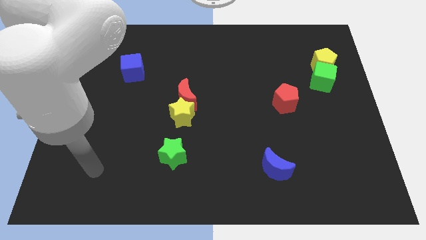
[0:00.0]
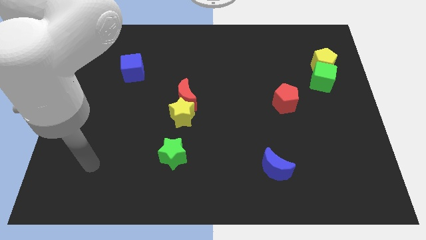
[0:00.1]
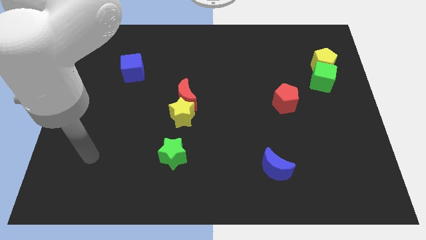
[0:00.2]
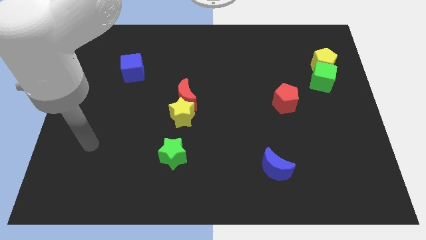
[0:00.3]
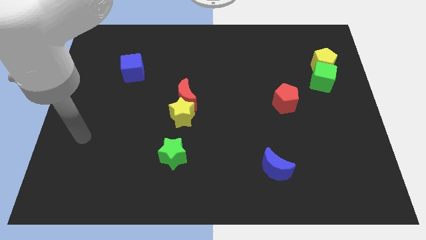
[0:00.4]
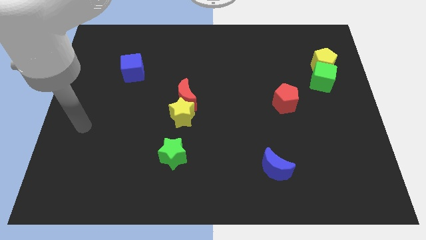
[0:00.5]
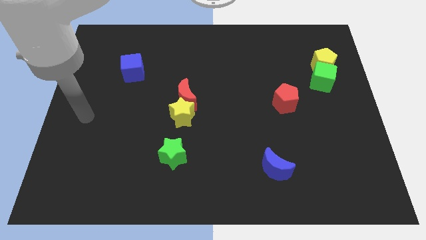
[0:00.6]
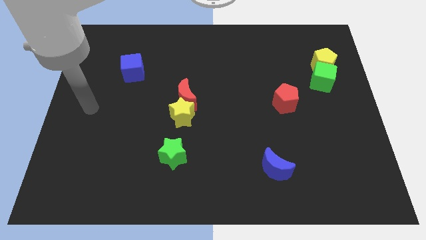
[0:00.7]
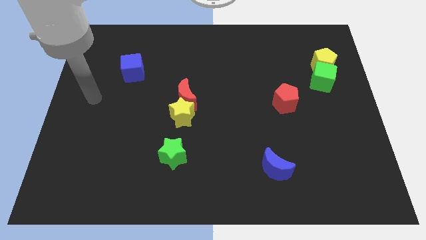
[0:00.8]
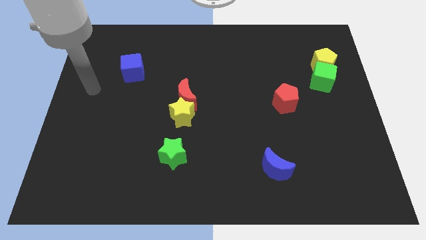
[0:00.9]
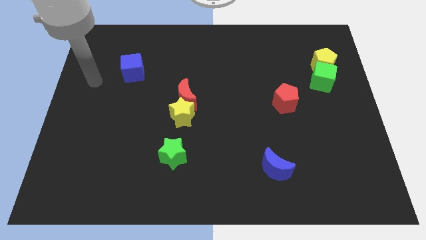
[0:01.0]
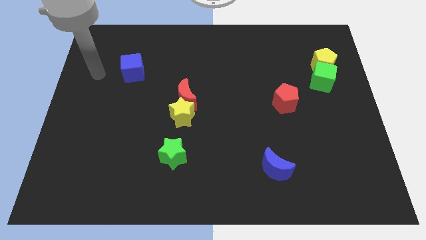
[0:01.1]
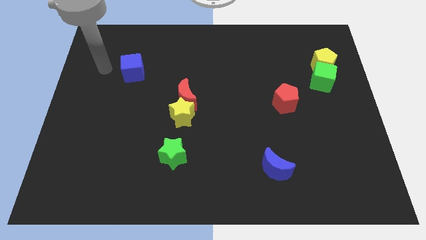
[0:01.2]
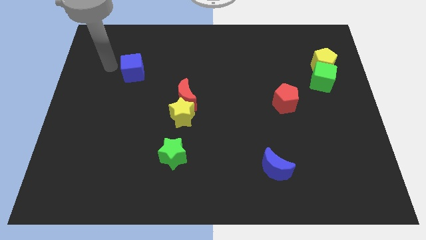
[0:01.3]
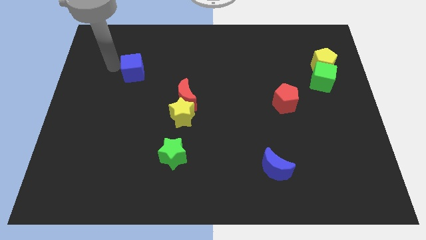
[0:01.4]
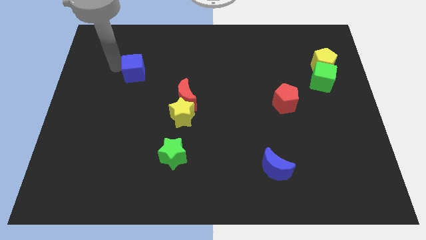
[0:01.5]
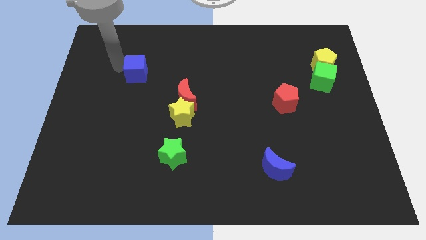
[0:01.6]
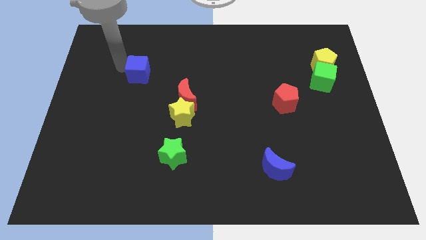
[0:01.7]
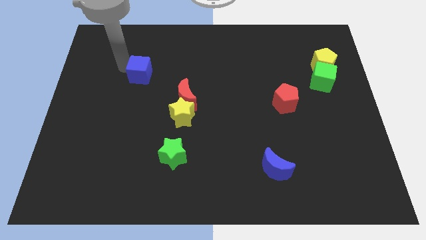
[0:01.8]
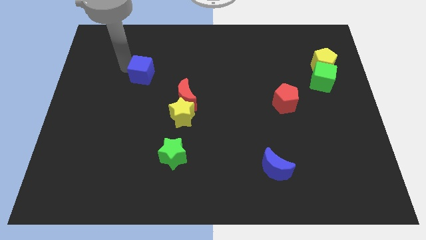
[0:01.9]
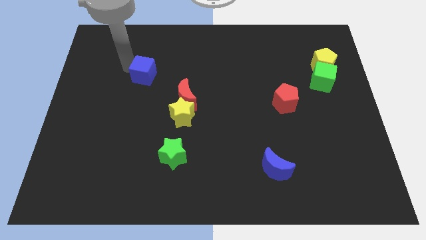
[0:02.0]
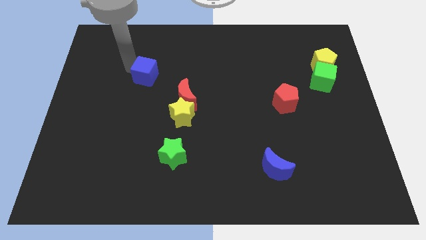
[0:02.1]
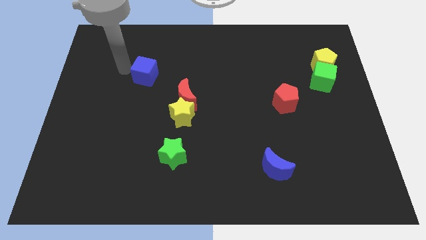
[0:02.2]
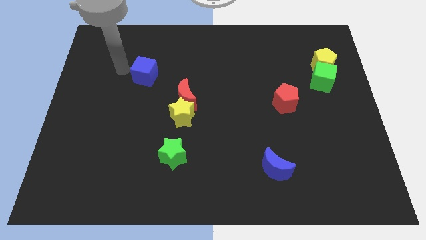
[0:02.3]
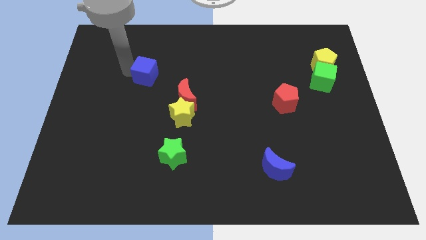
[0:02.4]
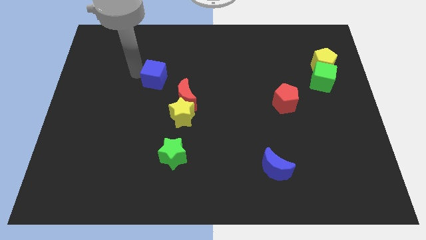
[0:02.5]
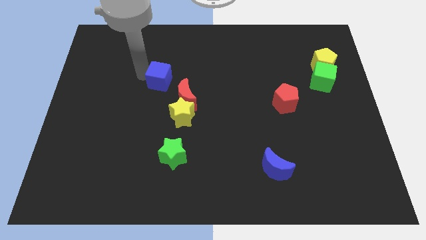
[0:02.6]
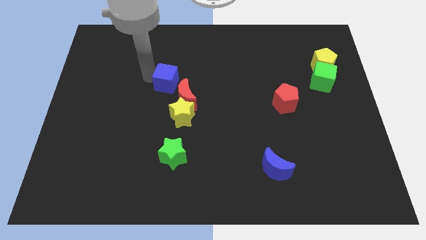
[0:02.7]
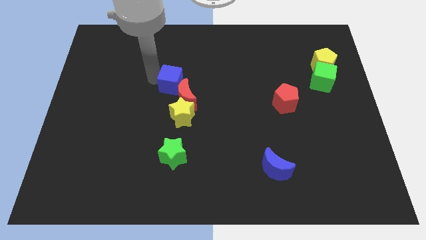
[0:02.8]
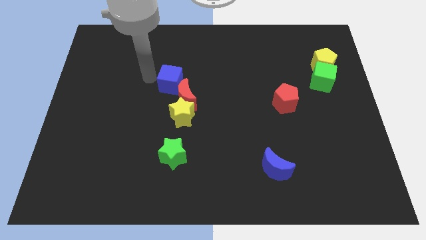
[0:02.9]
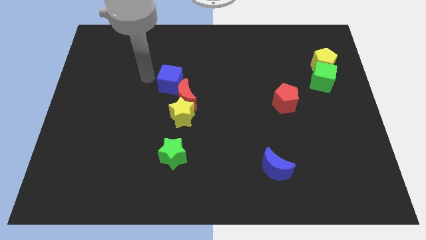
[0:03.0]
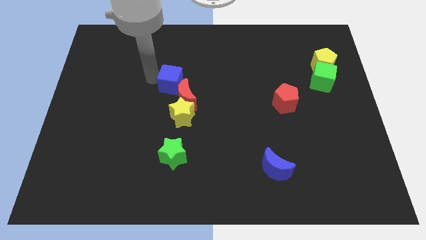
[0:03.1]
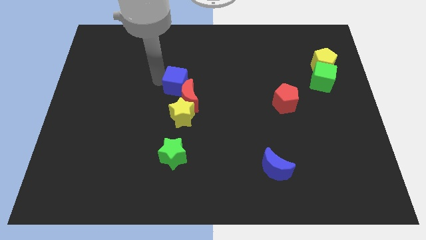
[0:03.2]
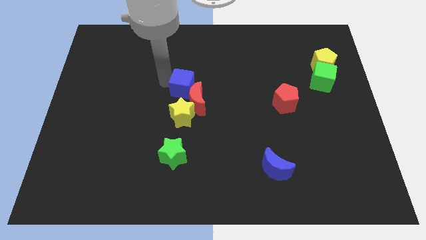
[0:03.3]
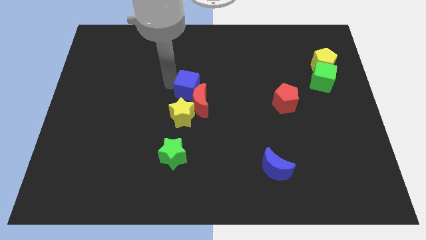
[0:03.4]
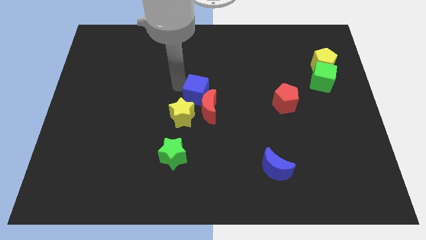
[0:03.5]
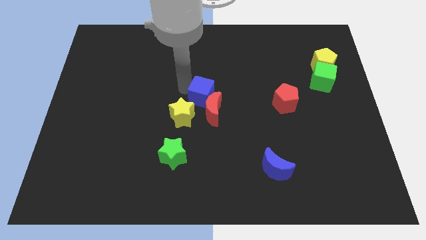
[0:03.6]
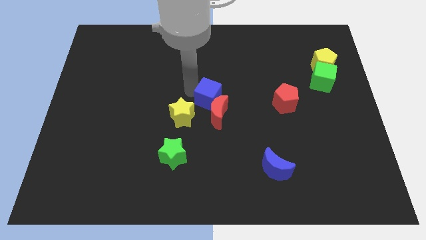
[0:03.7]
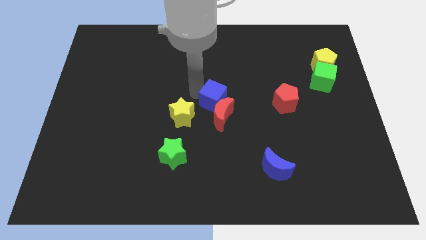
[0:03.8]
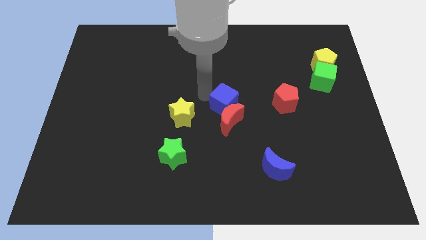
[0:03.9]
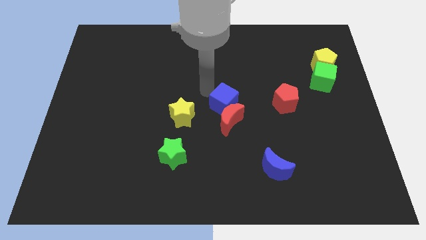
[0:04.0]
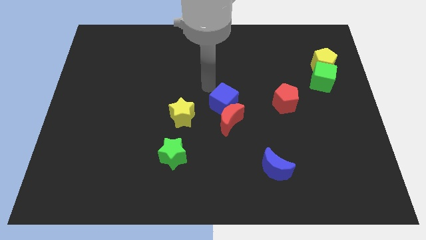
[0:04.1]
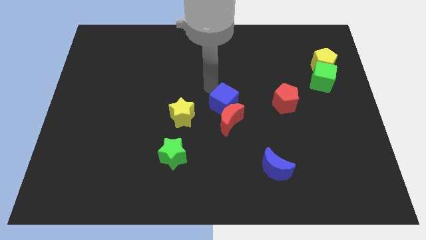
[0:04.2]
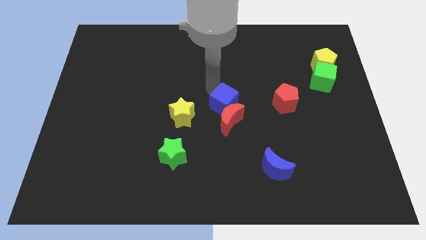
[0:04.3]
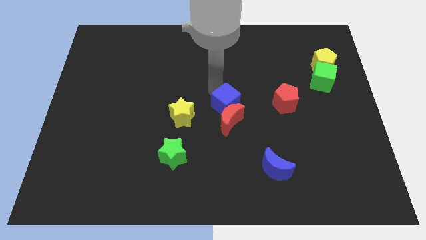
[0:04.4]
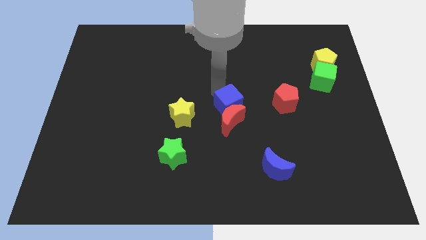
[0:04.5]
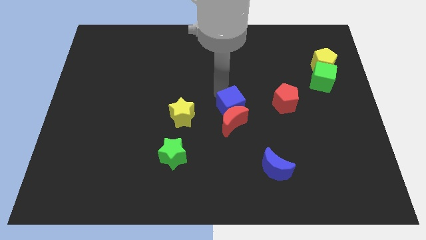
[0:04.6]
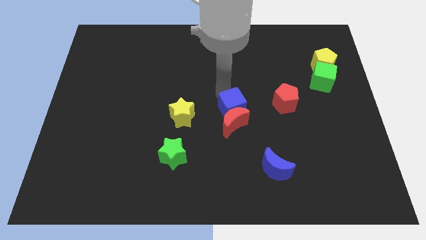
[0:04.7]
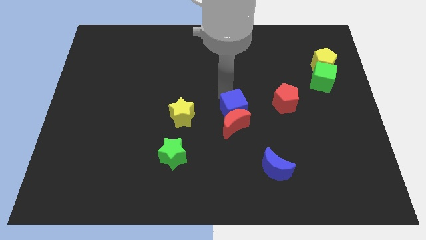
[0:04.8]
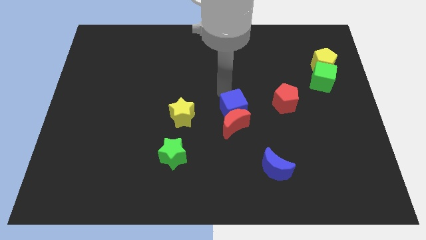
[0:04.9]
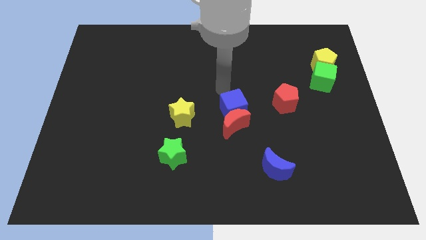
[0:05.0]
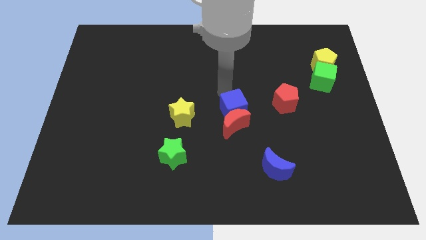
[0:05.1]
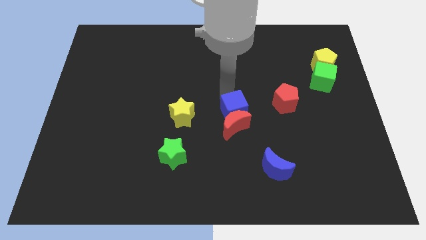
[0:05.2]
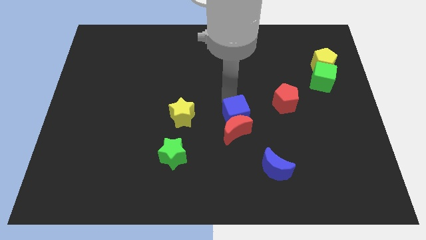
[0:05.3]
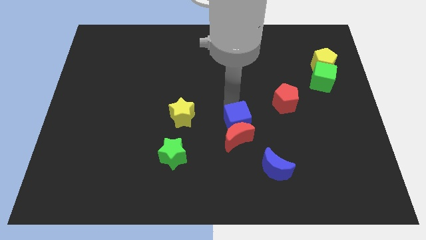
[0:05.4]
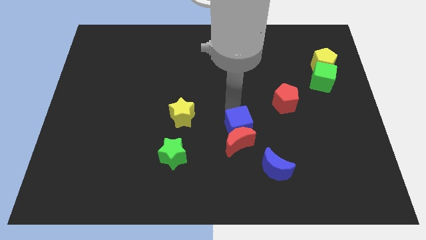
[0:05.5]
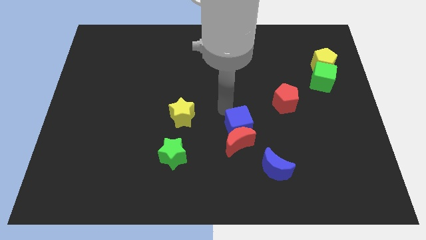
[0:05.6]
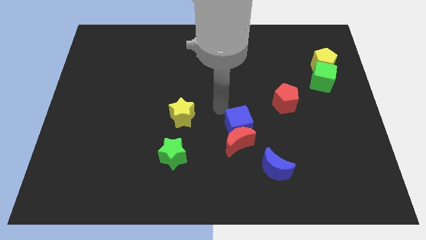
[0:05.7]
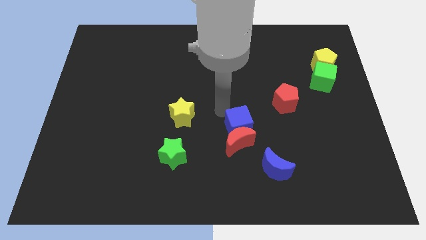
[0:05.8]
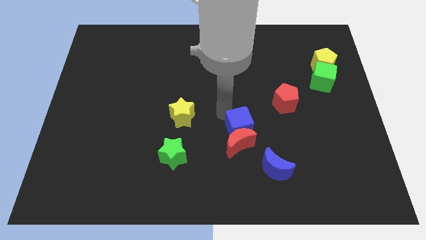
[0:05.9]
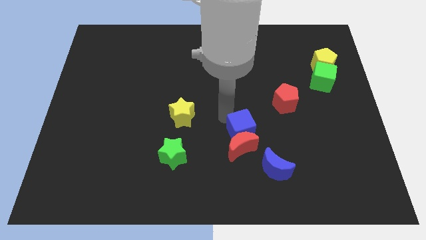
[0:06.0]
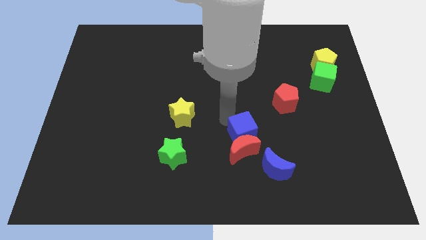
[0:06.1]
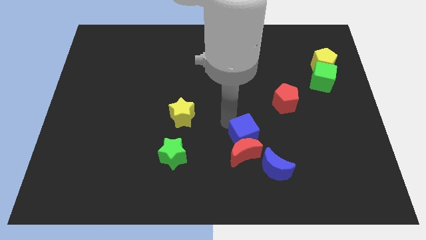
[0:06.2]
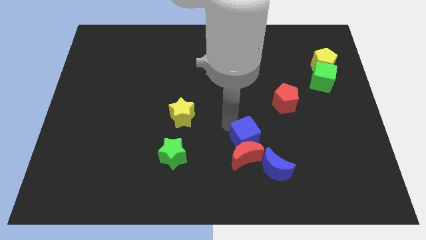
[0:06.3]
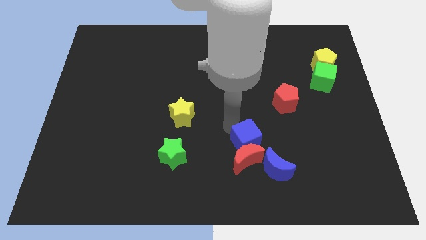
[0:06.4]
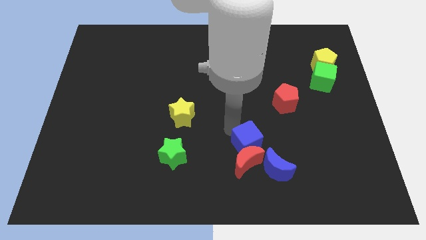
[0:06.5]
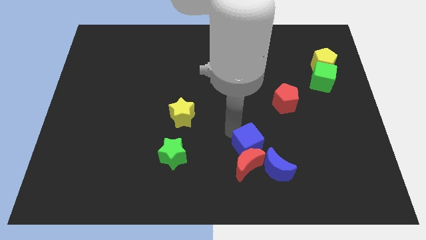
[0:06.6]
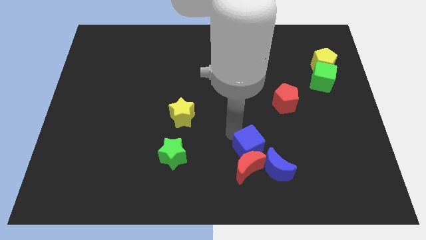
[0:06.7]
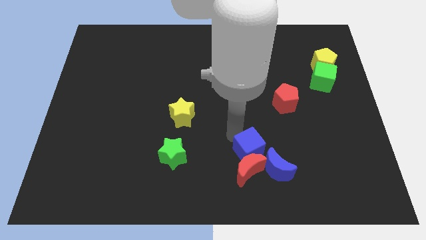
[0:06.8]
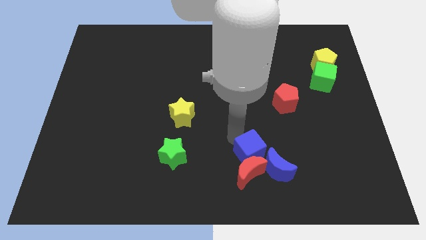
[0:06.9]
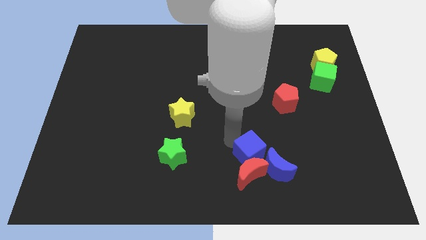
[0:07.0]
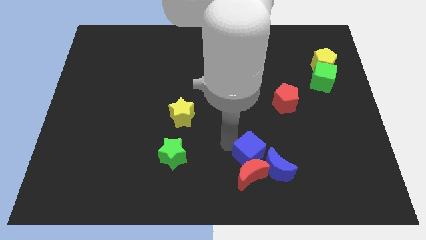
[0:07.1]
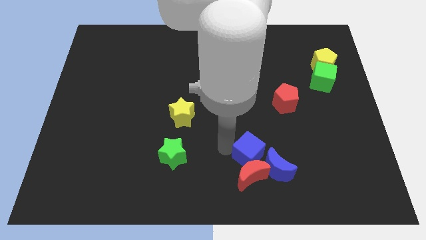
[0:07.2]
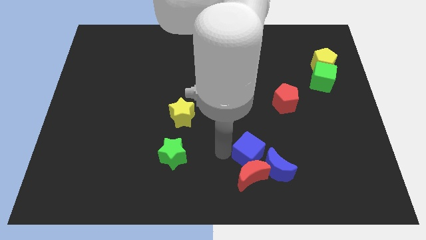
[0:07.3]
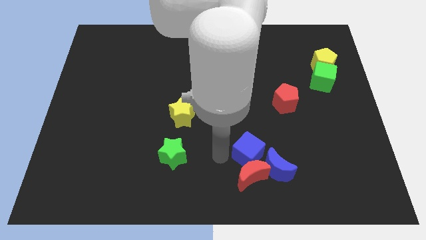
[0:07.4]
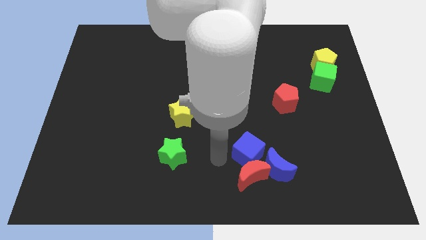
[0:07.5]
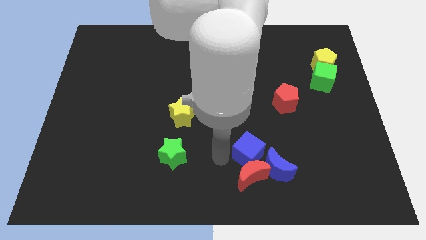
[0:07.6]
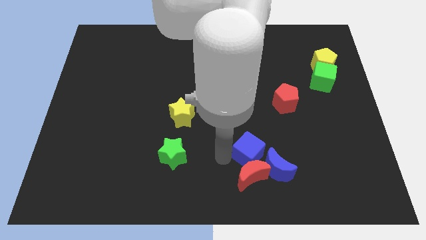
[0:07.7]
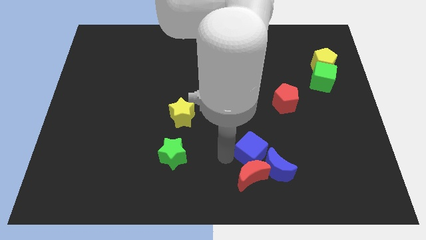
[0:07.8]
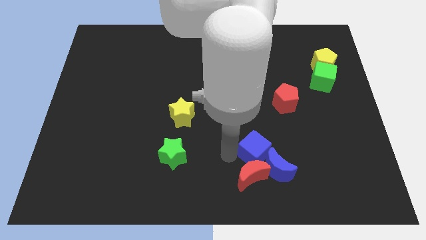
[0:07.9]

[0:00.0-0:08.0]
push the blue cube towards the blue moon
